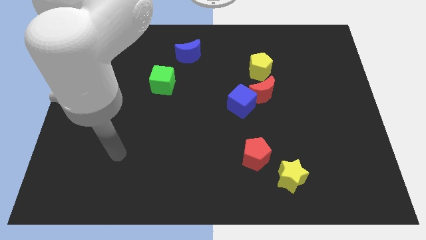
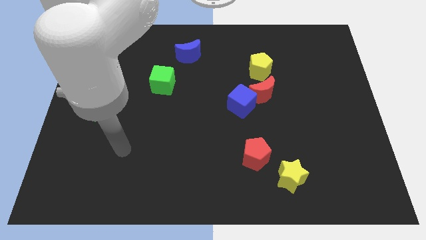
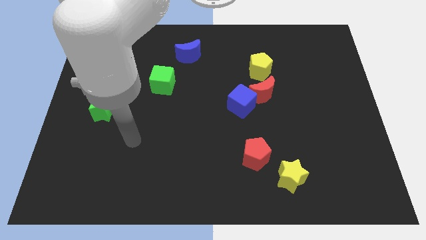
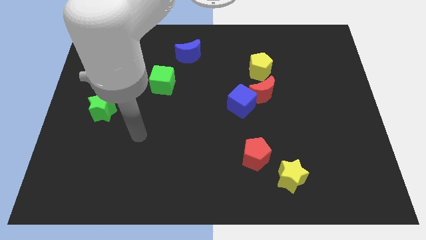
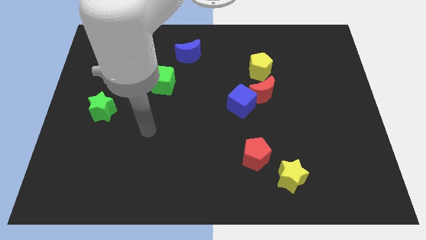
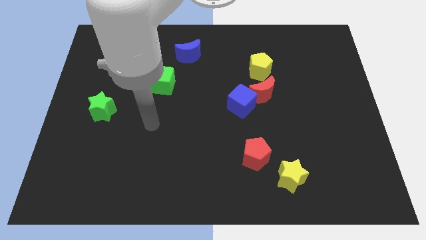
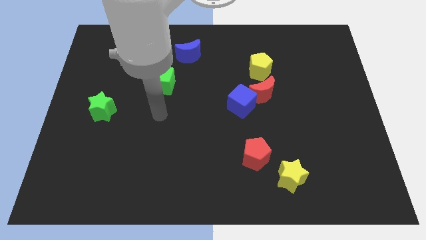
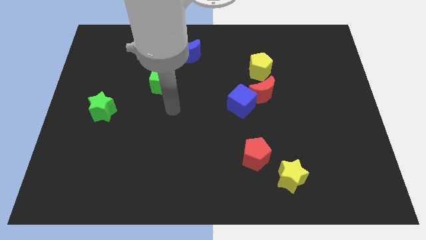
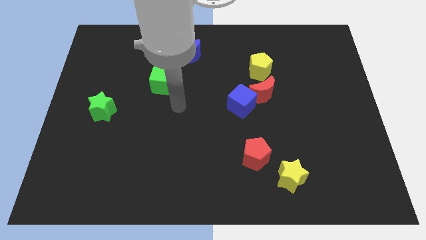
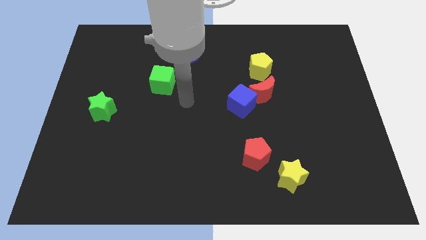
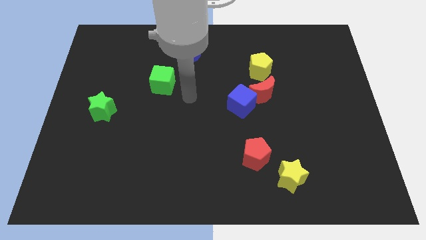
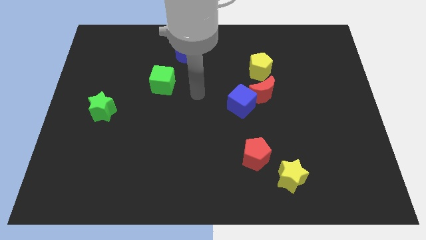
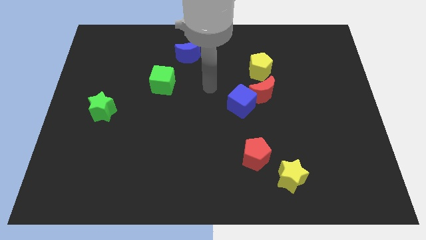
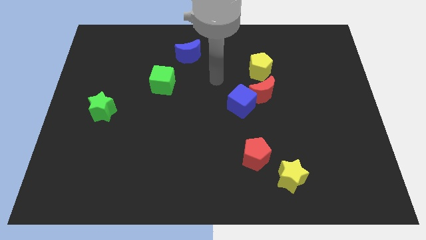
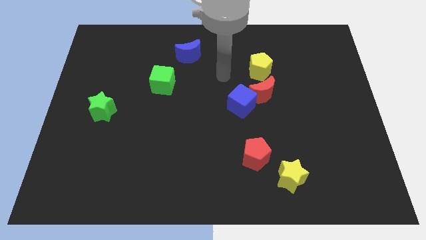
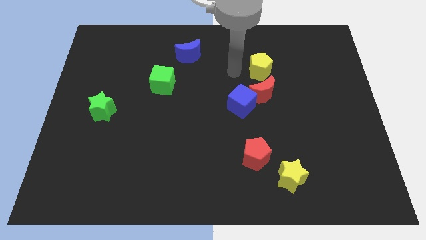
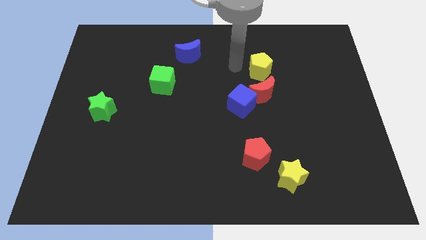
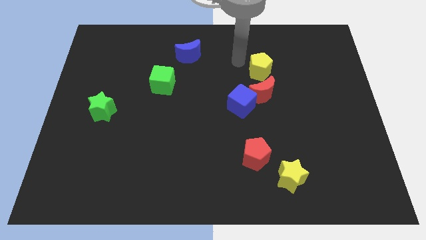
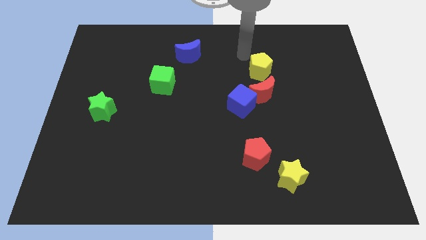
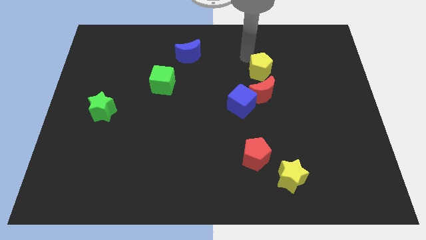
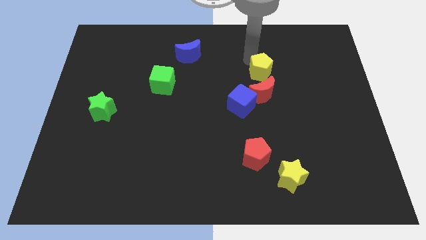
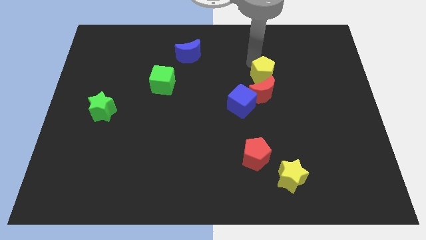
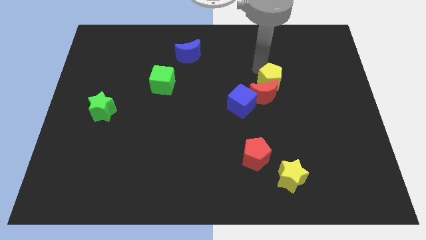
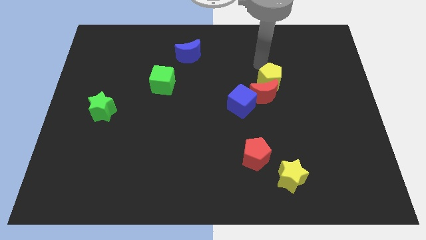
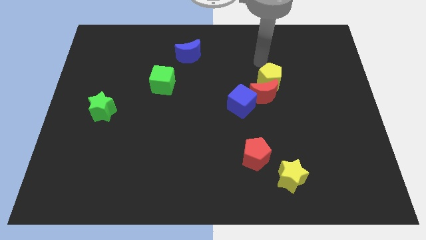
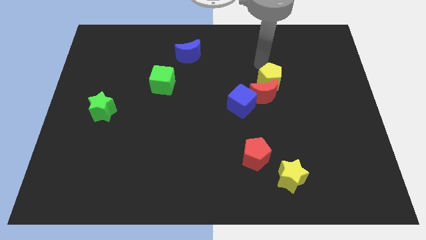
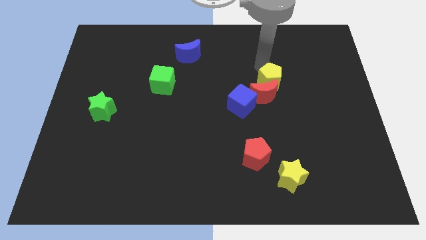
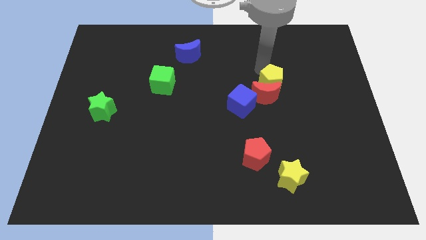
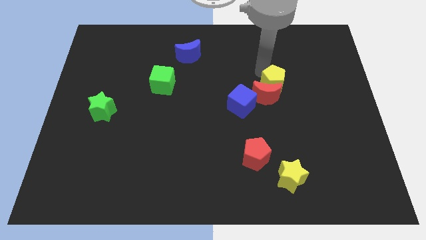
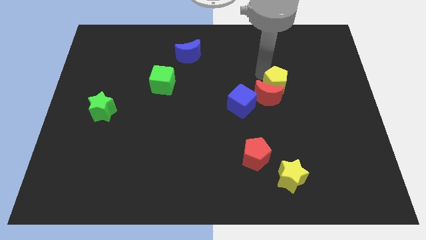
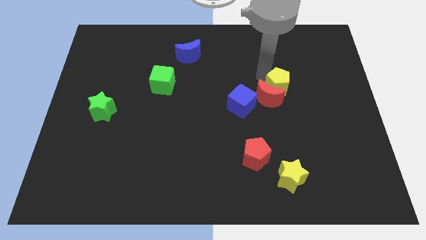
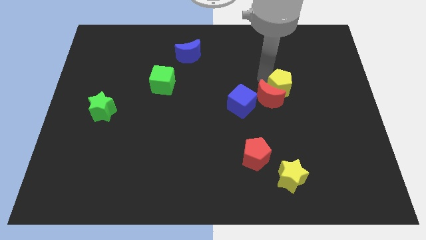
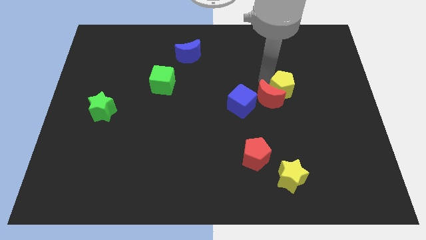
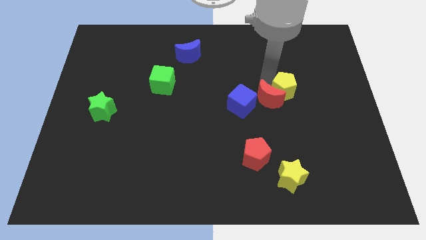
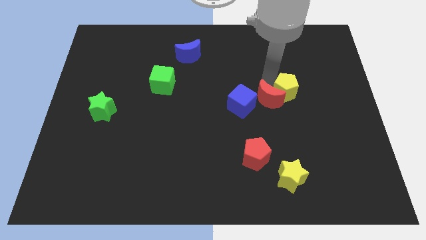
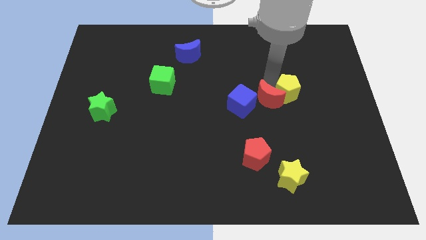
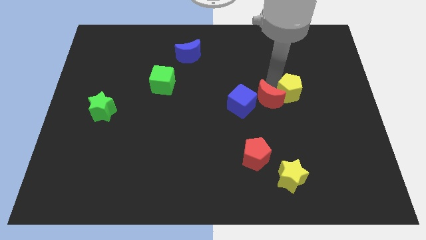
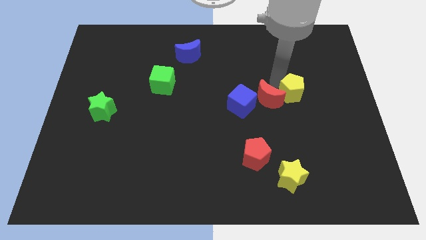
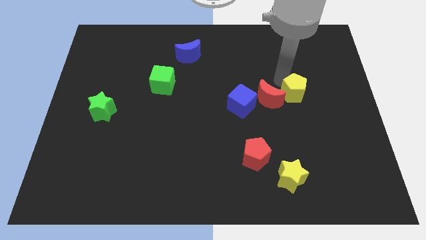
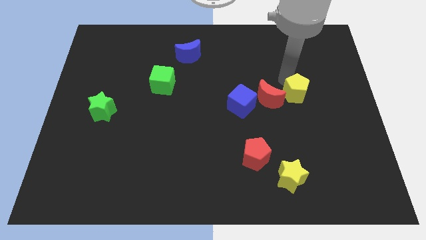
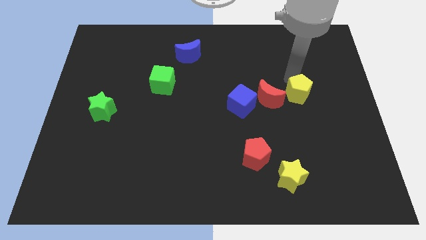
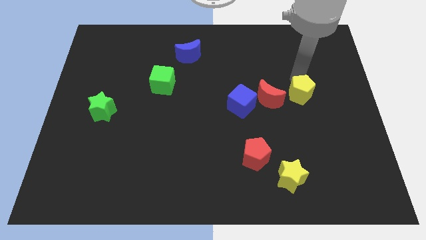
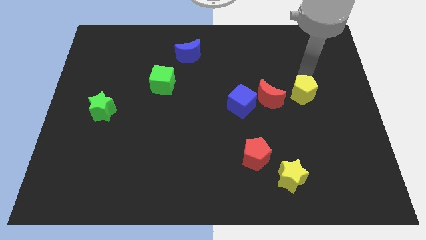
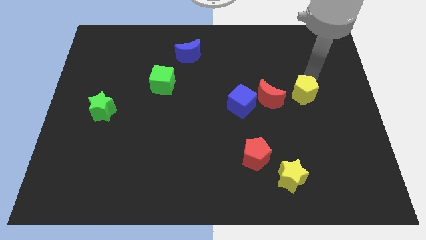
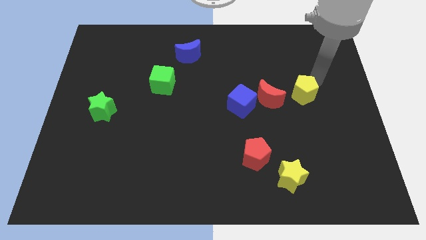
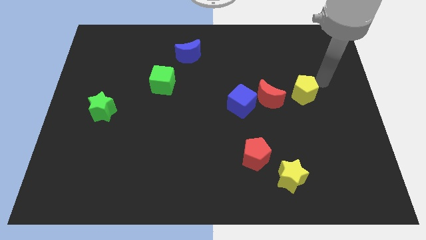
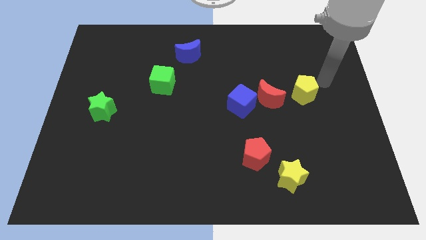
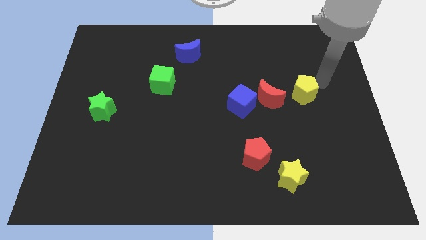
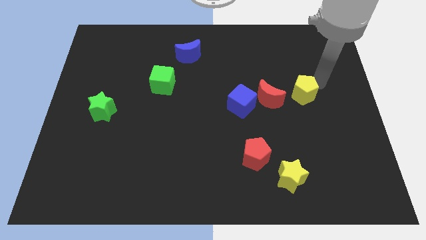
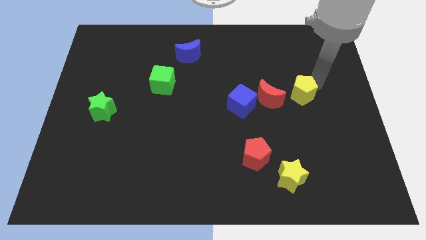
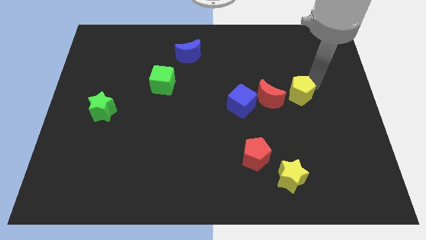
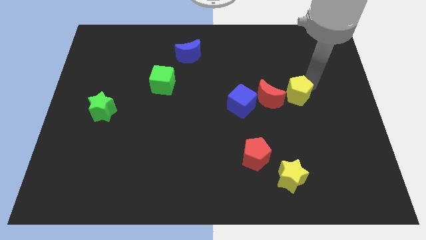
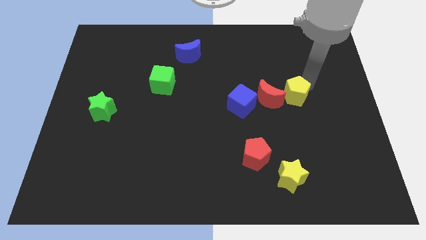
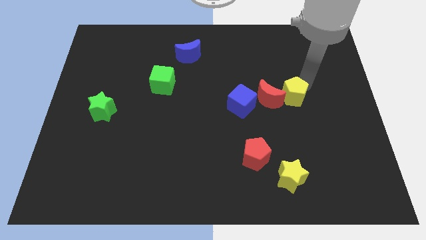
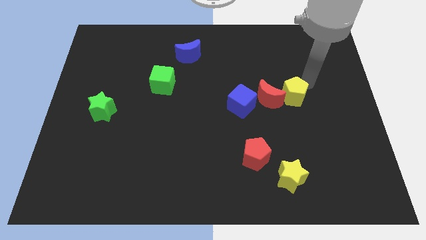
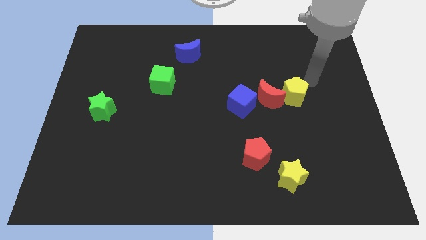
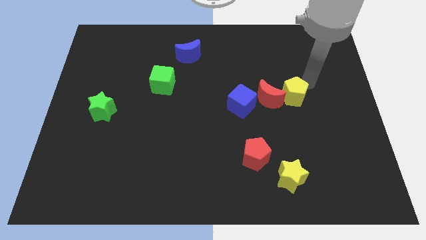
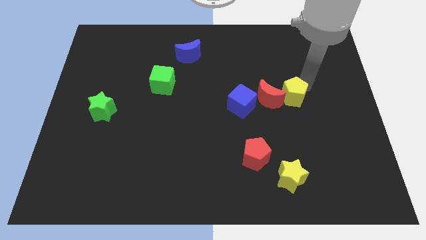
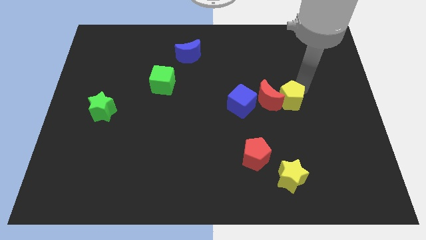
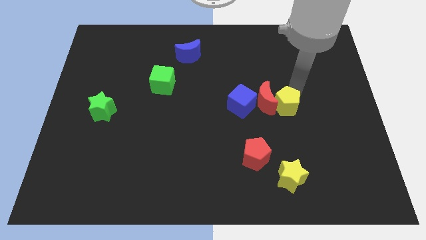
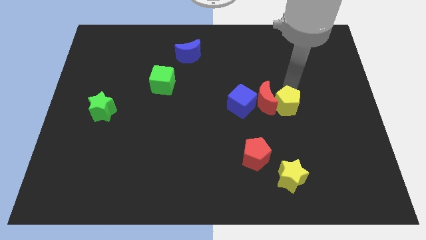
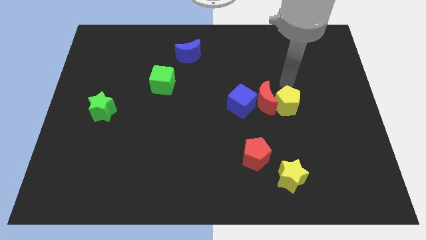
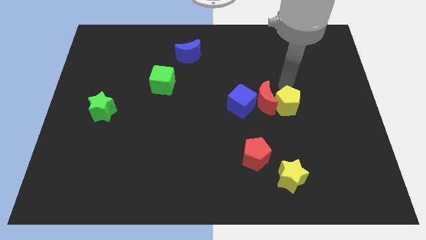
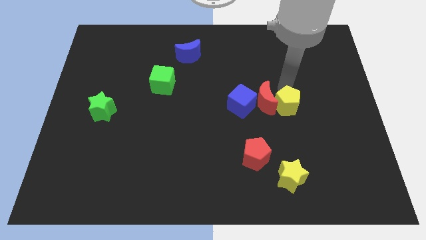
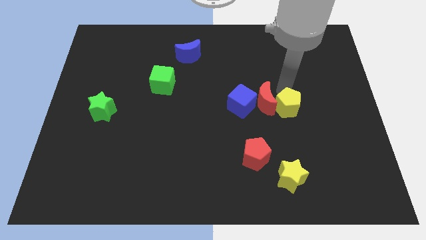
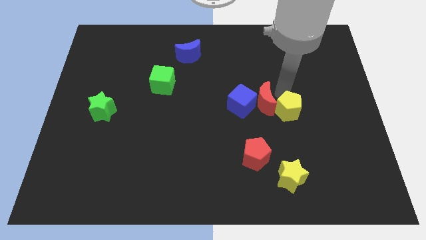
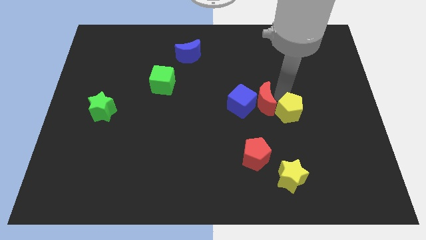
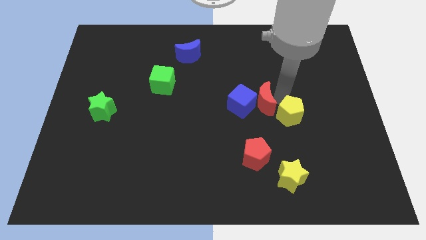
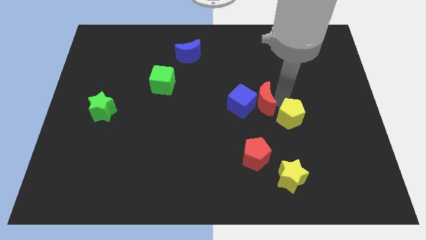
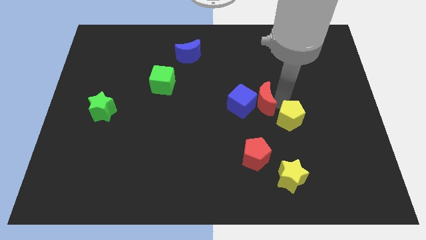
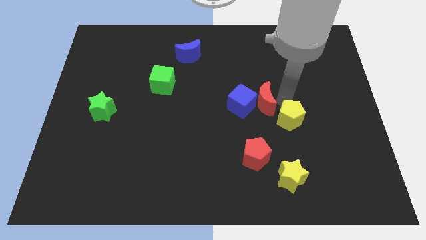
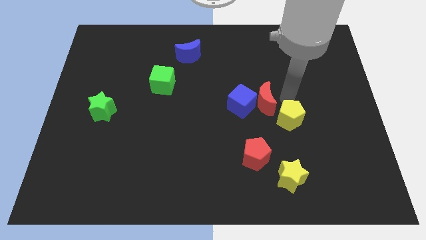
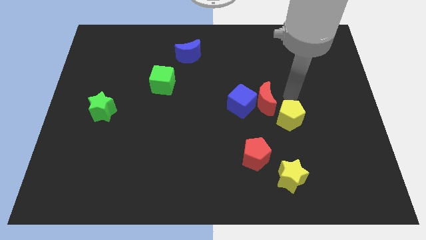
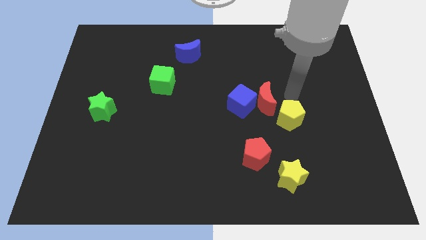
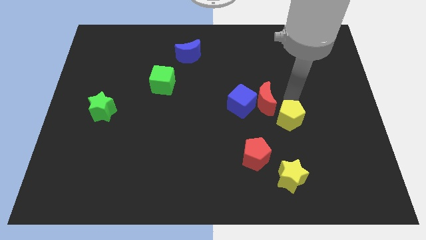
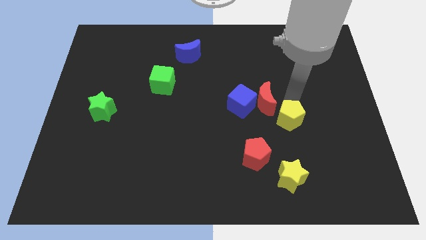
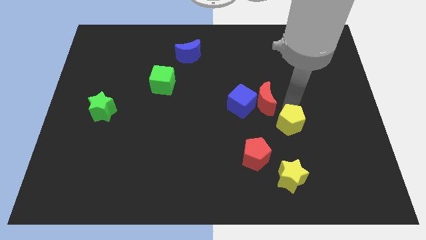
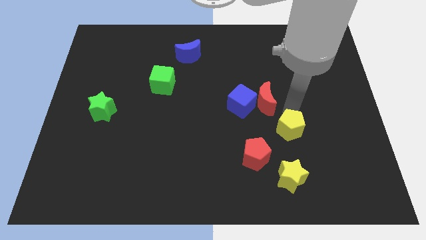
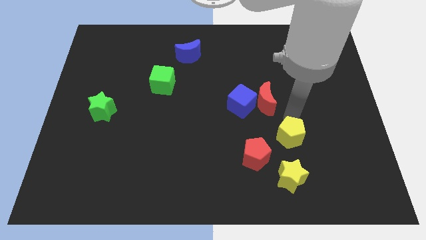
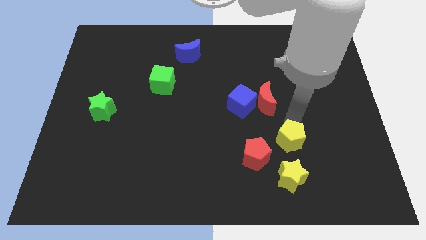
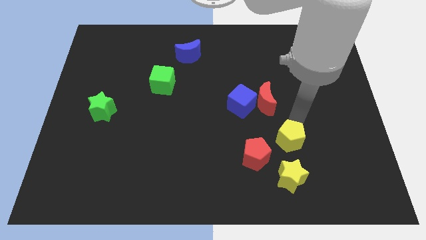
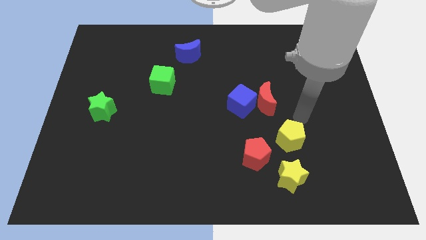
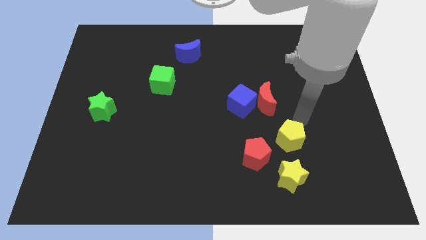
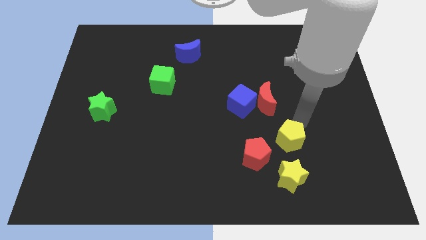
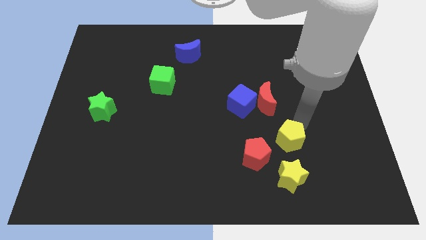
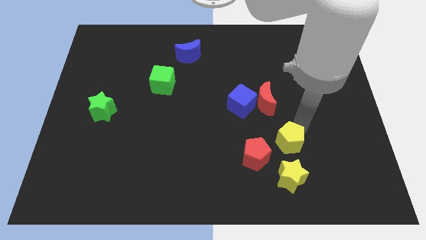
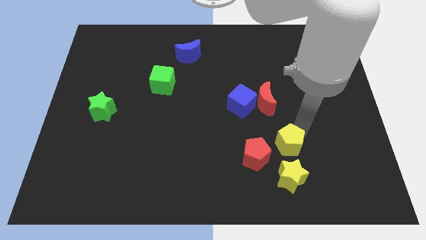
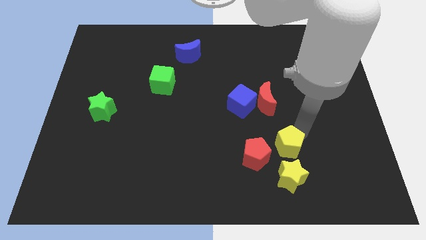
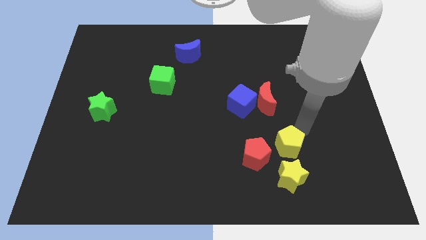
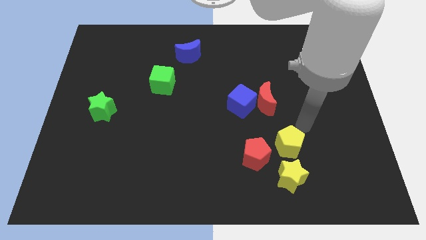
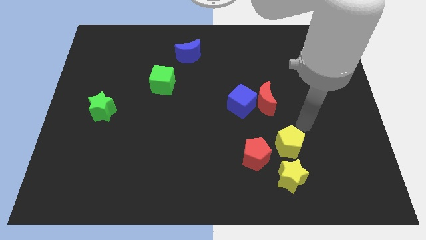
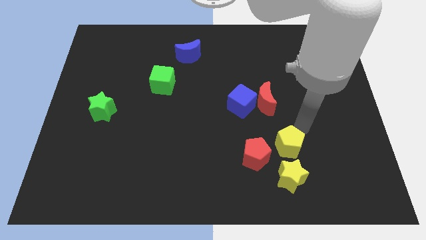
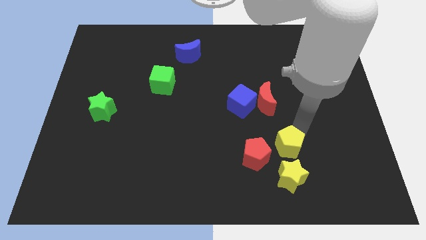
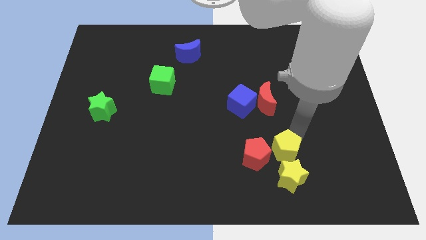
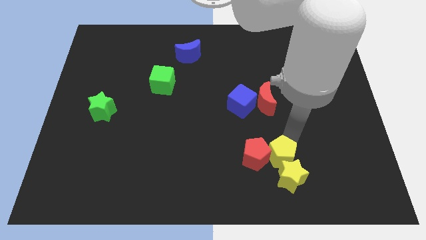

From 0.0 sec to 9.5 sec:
move the yellow pentagon next to the yellow star
